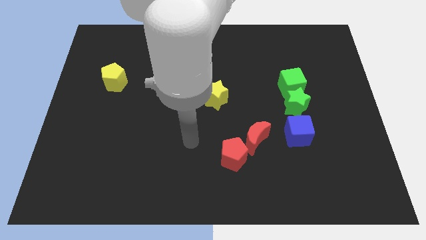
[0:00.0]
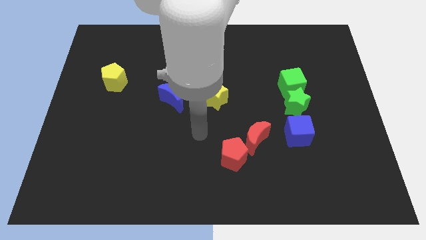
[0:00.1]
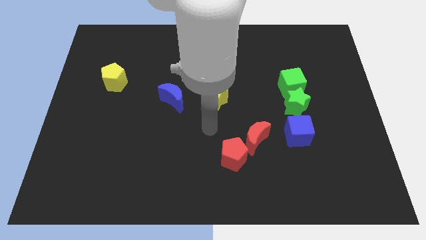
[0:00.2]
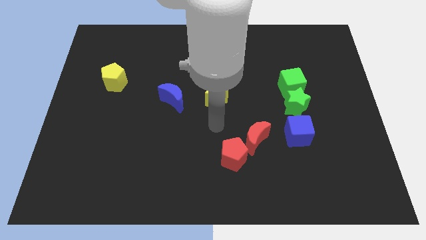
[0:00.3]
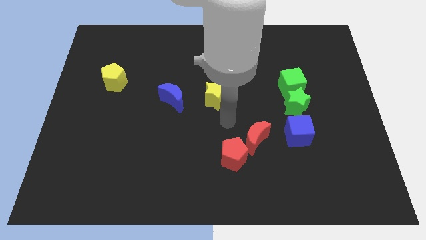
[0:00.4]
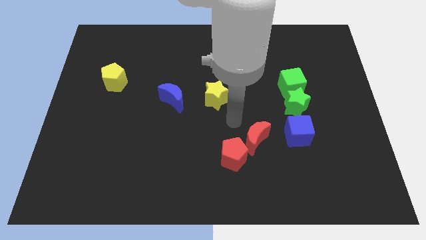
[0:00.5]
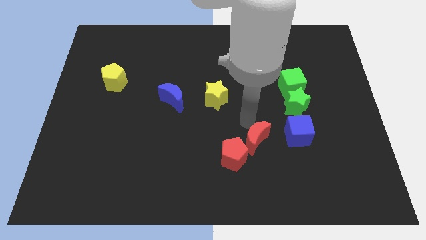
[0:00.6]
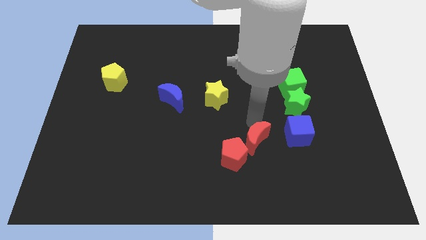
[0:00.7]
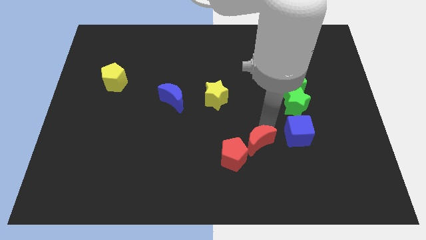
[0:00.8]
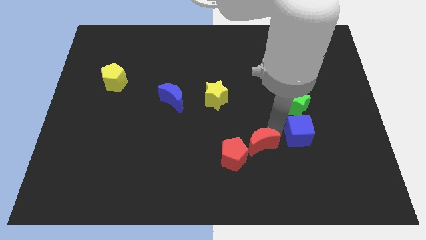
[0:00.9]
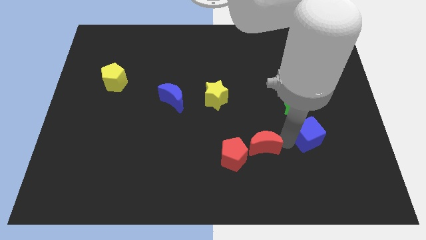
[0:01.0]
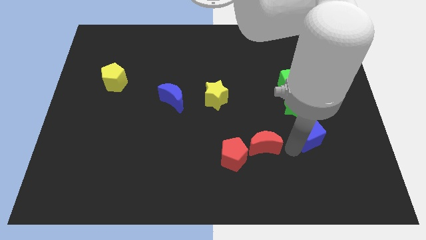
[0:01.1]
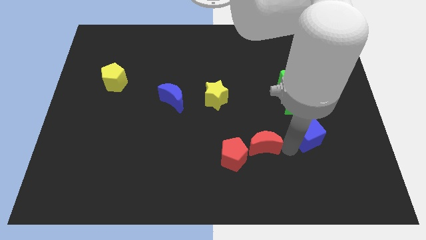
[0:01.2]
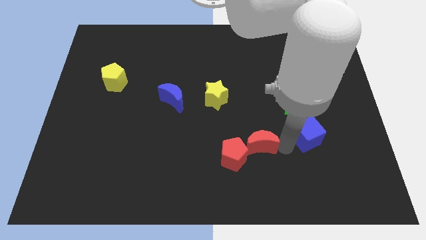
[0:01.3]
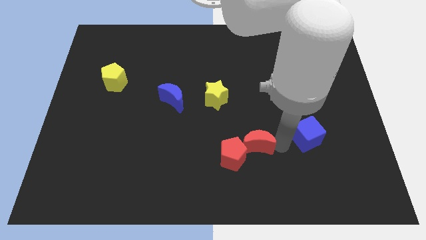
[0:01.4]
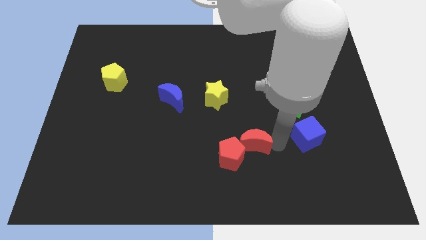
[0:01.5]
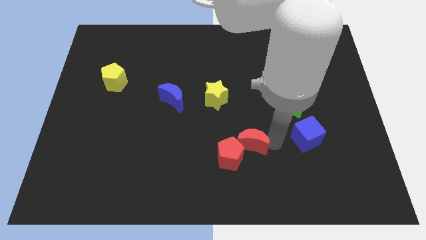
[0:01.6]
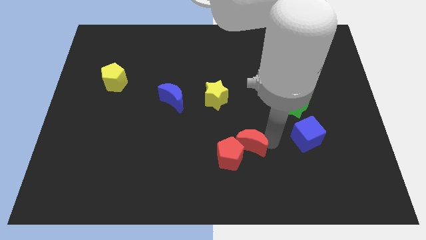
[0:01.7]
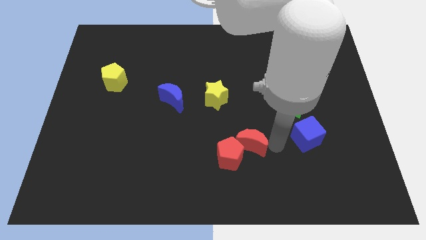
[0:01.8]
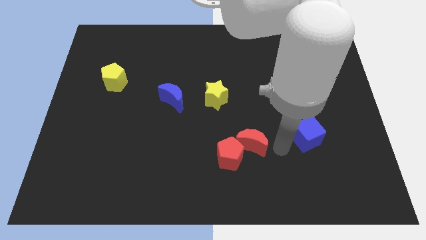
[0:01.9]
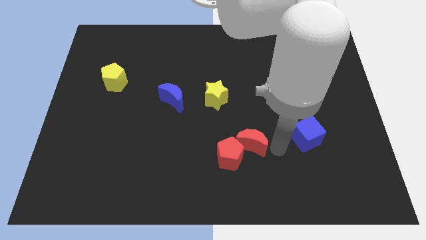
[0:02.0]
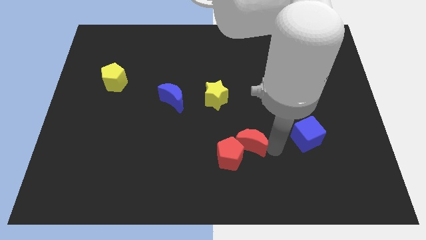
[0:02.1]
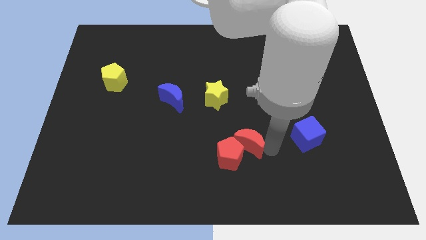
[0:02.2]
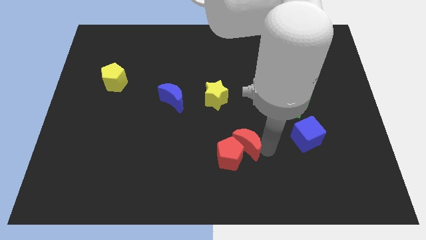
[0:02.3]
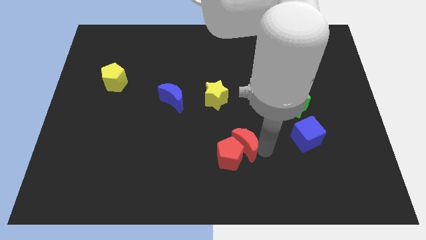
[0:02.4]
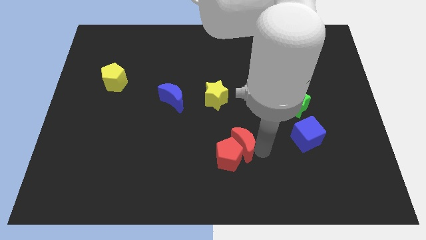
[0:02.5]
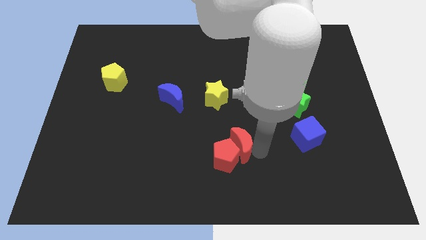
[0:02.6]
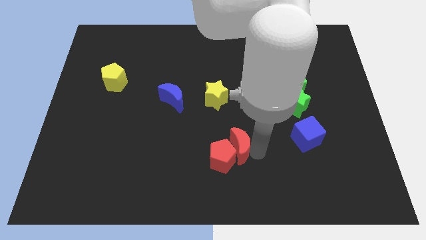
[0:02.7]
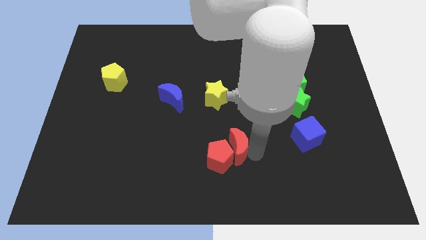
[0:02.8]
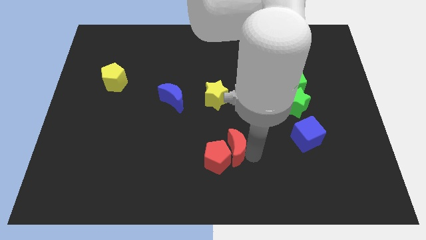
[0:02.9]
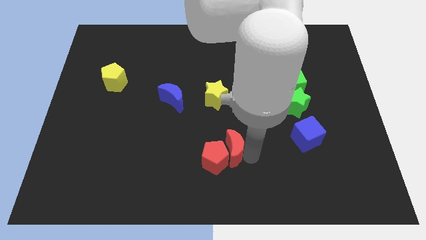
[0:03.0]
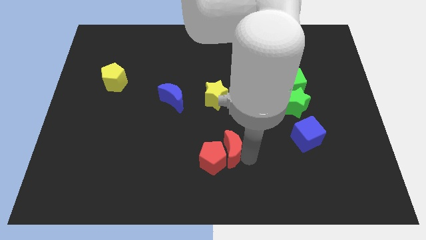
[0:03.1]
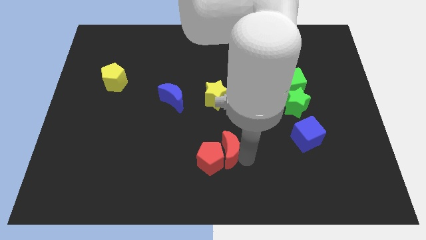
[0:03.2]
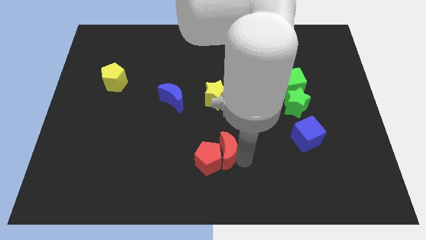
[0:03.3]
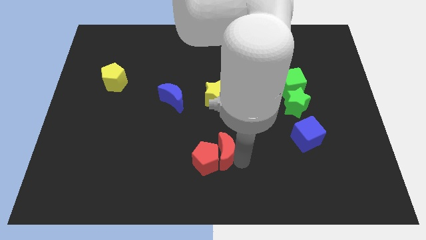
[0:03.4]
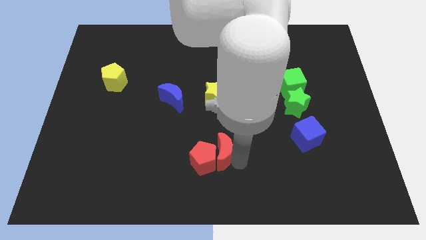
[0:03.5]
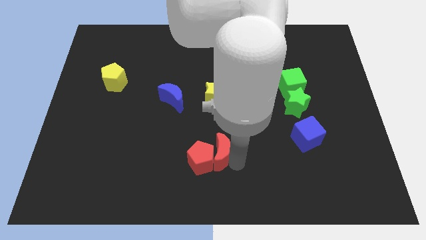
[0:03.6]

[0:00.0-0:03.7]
move the red moon a bit left

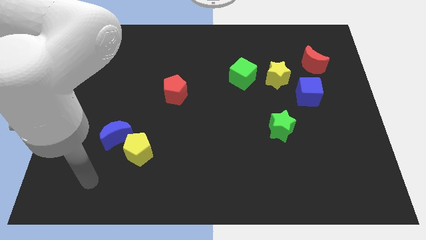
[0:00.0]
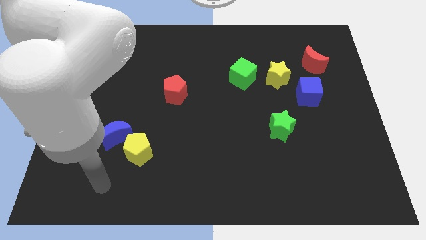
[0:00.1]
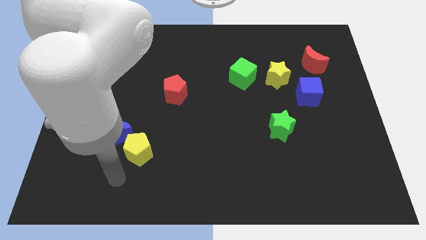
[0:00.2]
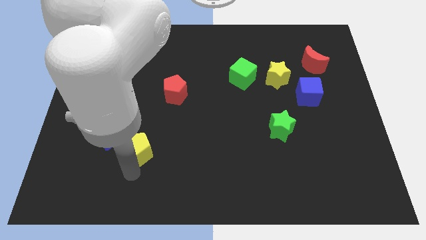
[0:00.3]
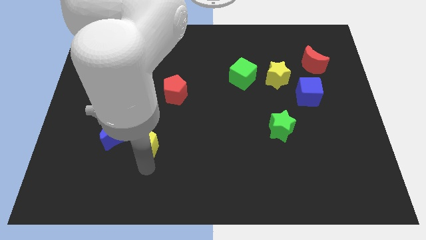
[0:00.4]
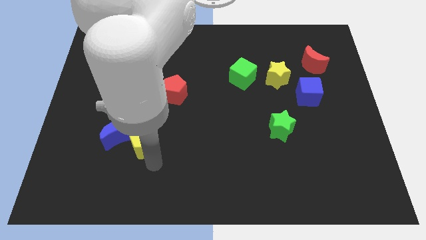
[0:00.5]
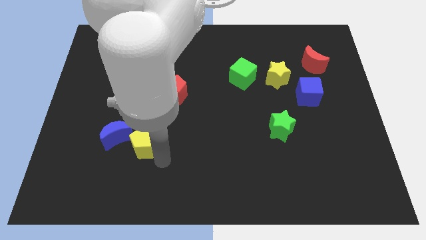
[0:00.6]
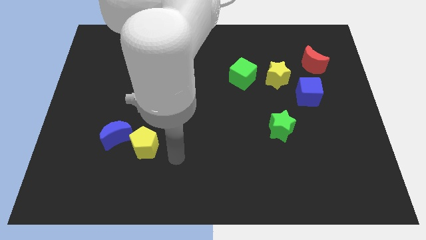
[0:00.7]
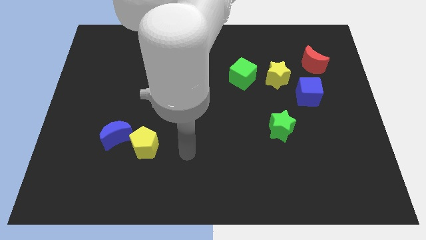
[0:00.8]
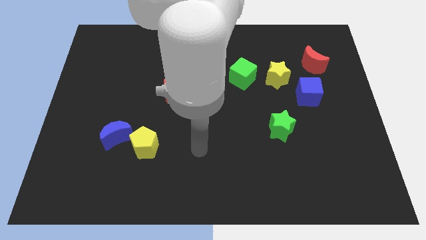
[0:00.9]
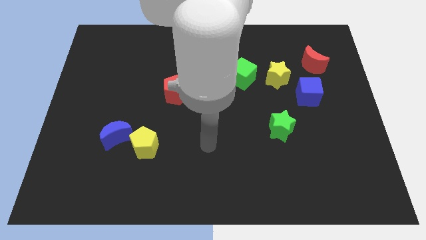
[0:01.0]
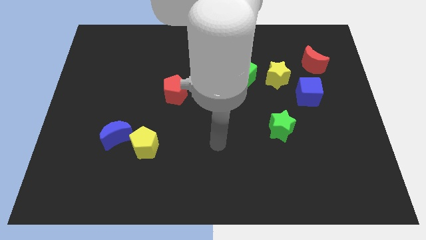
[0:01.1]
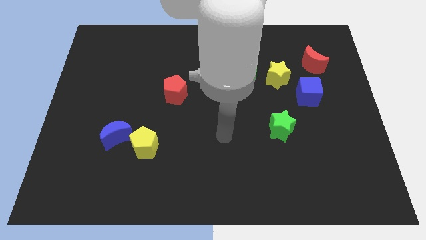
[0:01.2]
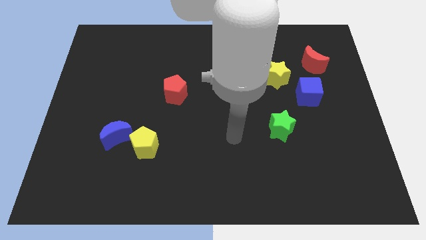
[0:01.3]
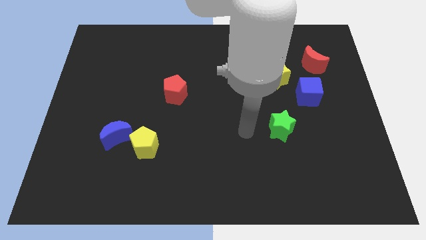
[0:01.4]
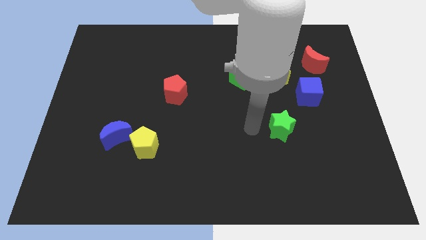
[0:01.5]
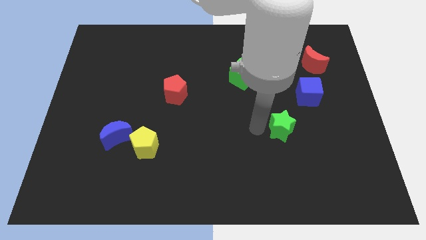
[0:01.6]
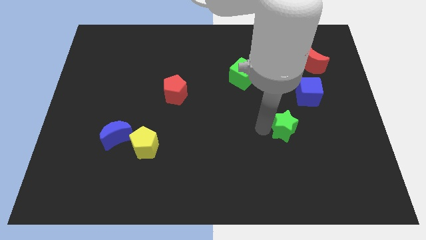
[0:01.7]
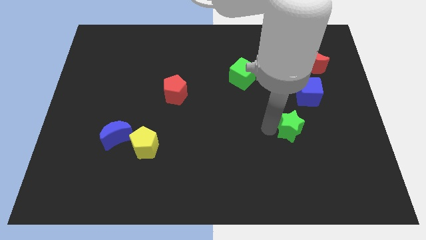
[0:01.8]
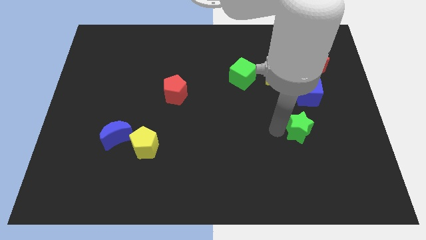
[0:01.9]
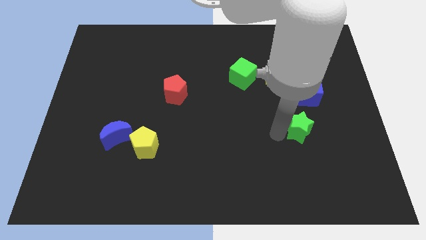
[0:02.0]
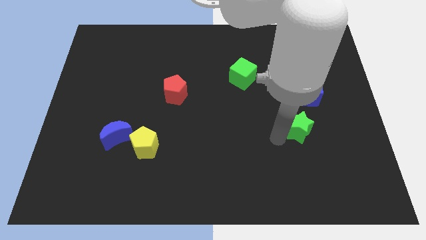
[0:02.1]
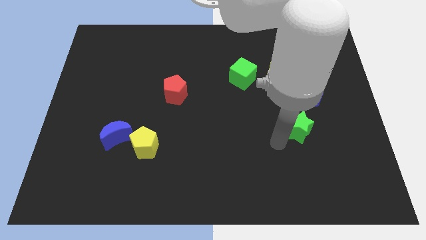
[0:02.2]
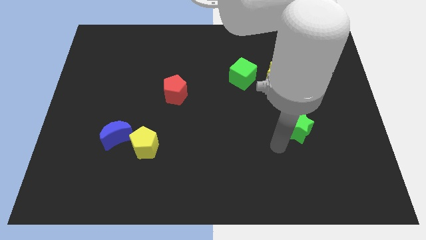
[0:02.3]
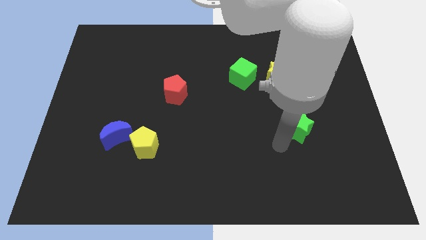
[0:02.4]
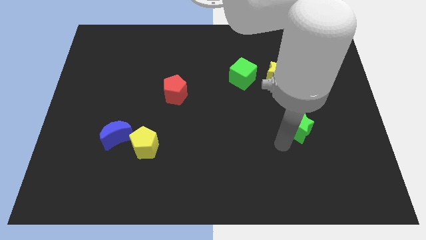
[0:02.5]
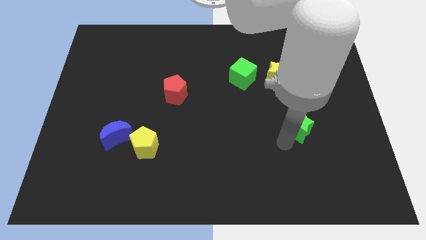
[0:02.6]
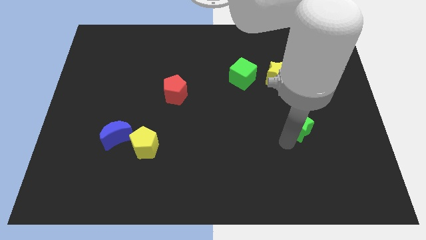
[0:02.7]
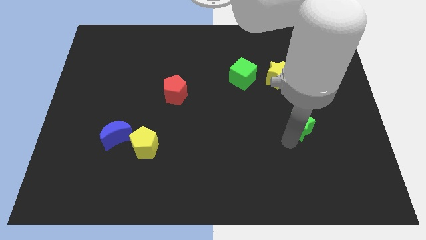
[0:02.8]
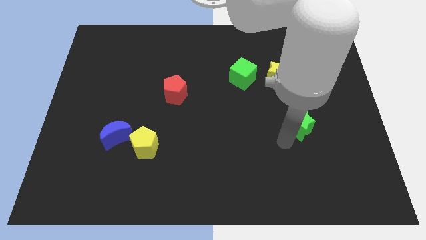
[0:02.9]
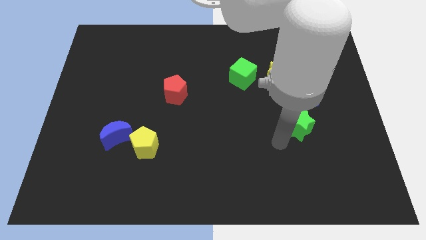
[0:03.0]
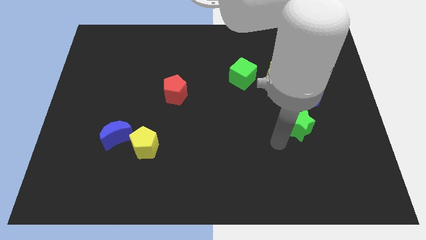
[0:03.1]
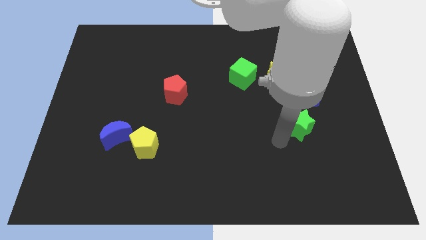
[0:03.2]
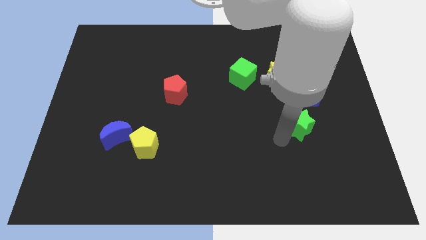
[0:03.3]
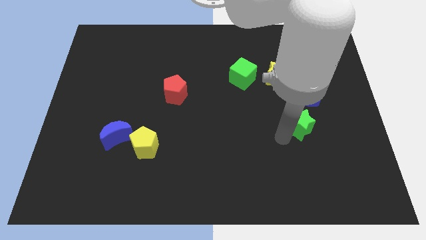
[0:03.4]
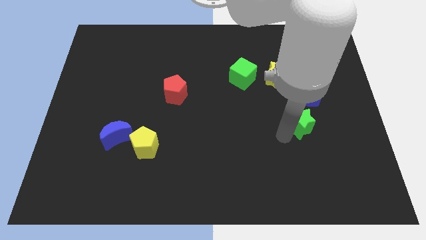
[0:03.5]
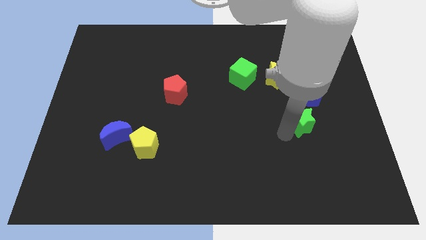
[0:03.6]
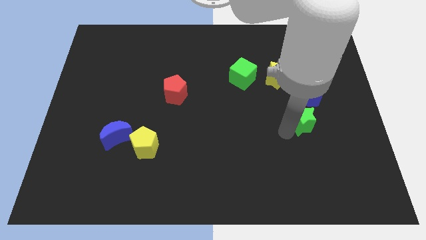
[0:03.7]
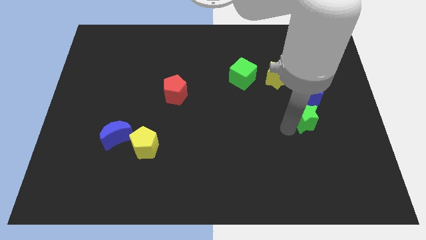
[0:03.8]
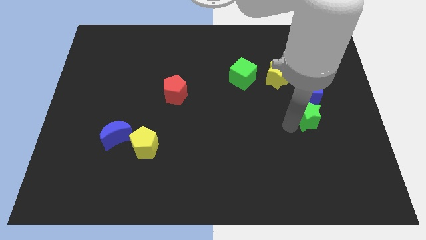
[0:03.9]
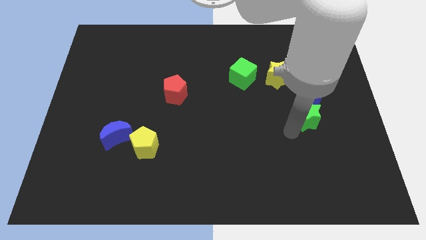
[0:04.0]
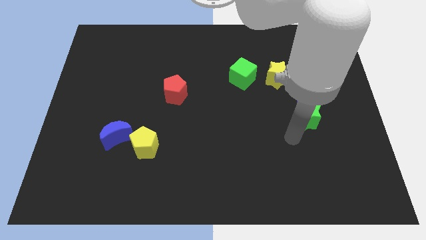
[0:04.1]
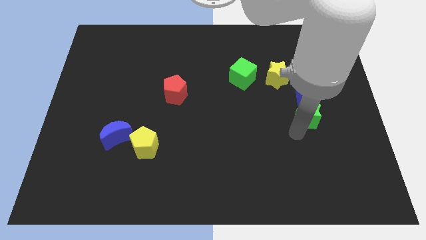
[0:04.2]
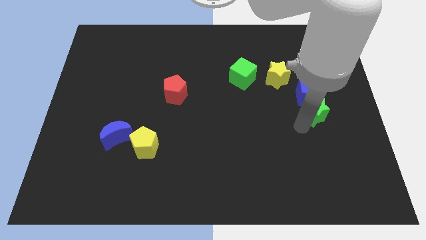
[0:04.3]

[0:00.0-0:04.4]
slide the green star up and then to the right a little

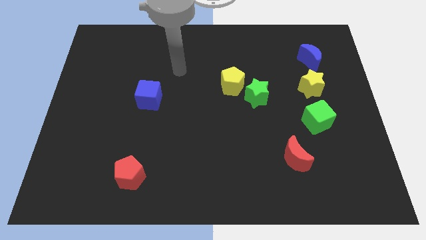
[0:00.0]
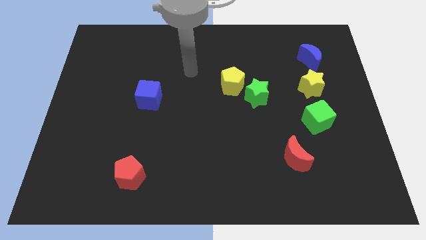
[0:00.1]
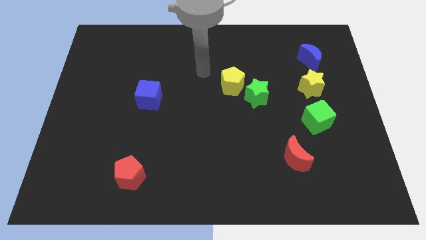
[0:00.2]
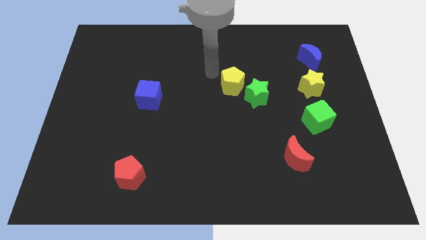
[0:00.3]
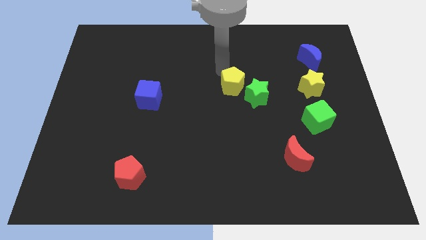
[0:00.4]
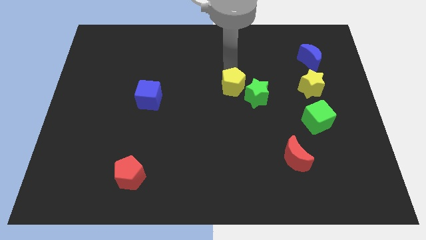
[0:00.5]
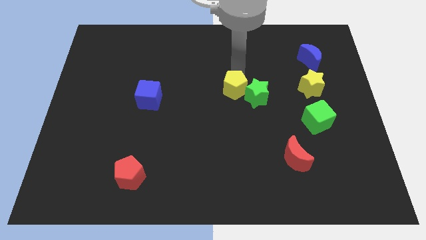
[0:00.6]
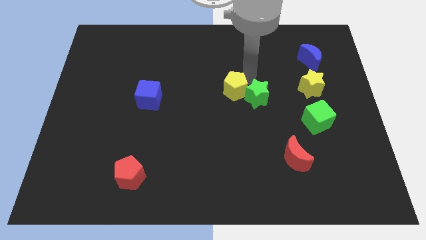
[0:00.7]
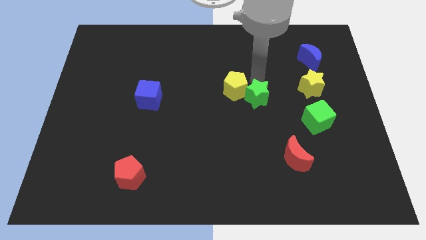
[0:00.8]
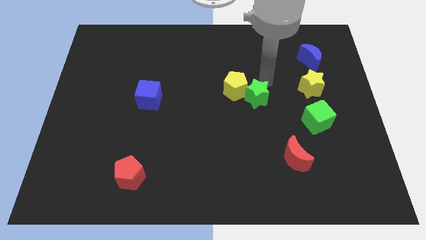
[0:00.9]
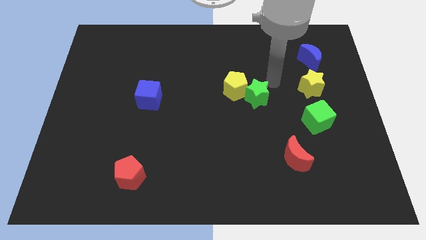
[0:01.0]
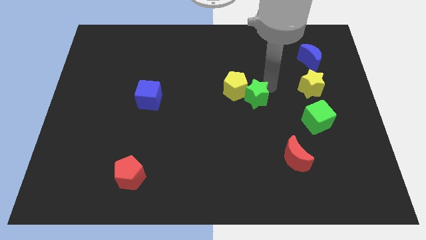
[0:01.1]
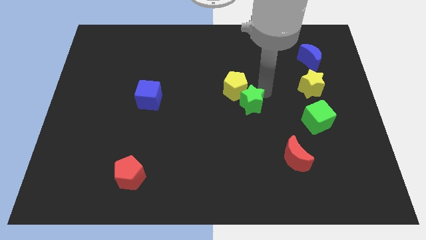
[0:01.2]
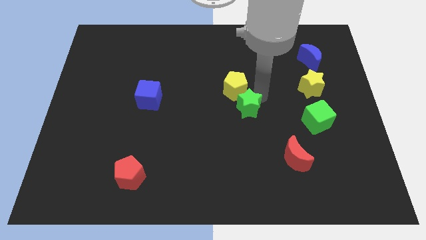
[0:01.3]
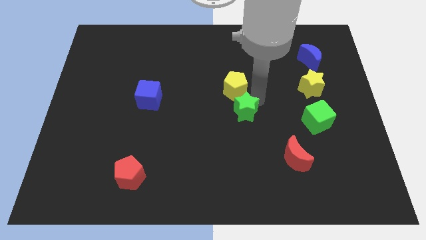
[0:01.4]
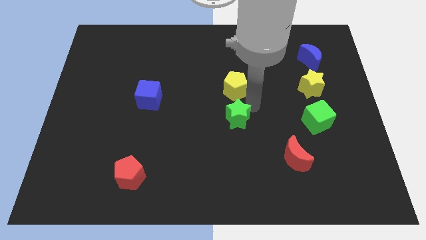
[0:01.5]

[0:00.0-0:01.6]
push the green star a little downwards and to the left
